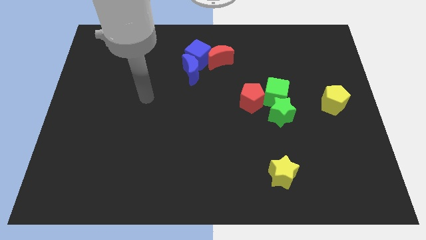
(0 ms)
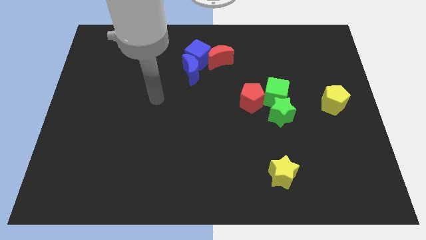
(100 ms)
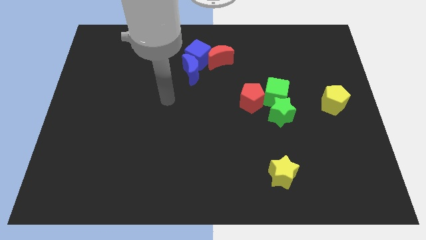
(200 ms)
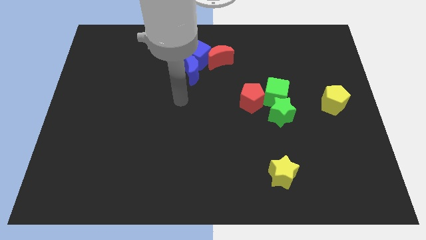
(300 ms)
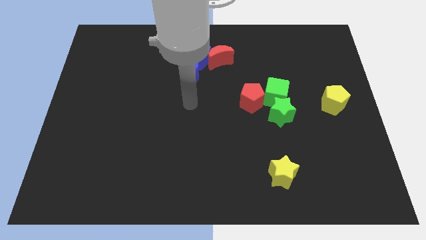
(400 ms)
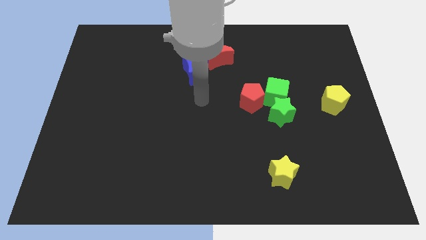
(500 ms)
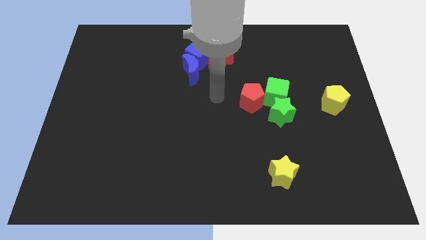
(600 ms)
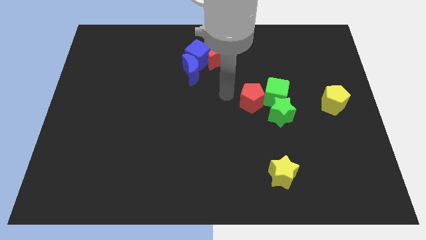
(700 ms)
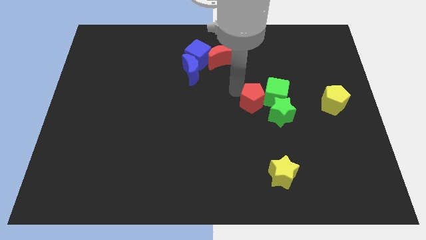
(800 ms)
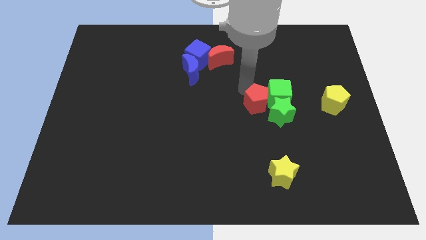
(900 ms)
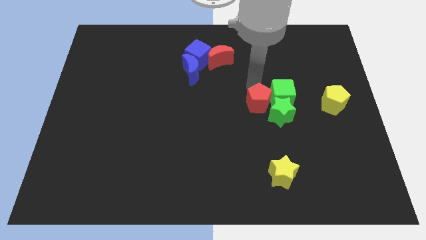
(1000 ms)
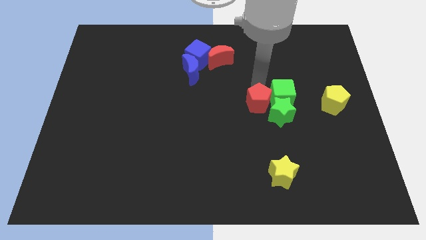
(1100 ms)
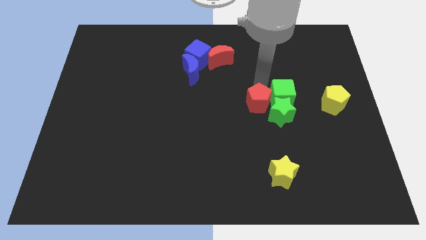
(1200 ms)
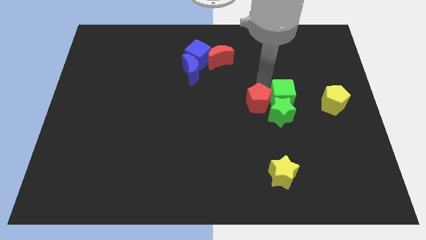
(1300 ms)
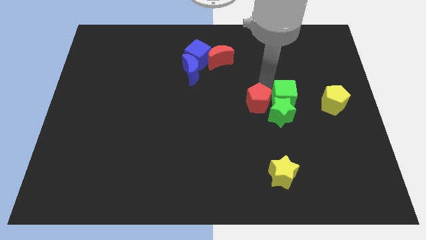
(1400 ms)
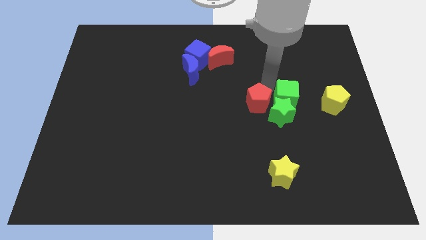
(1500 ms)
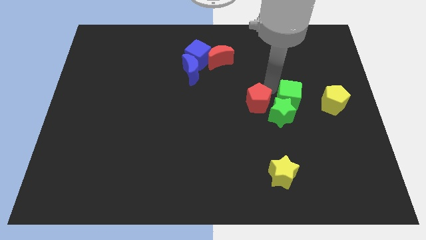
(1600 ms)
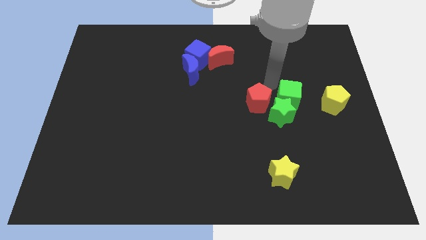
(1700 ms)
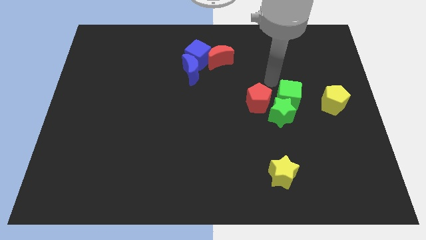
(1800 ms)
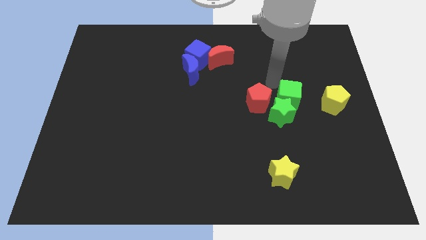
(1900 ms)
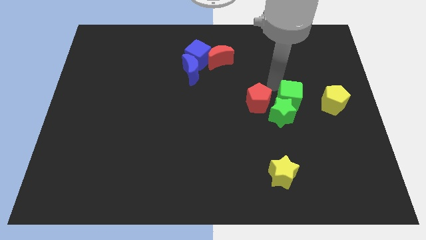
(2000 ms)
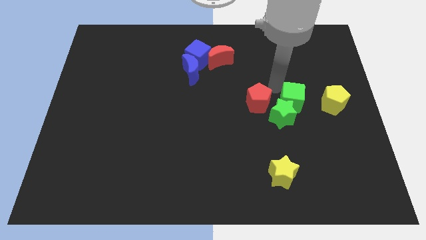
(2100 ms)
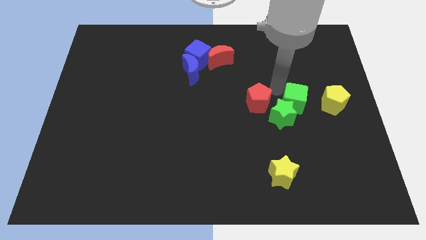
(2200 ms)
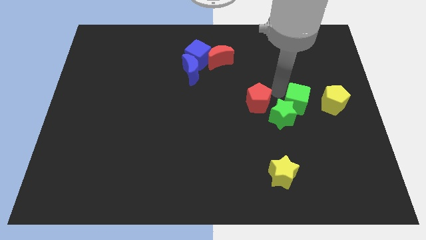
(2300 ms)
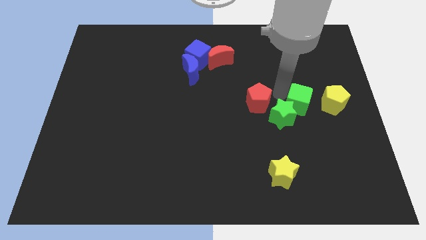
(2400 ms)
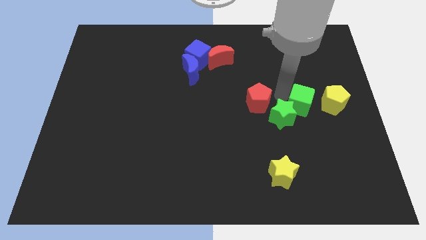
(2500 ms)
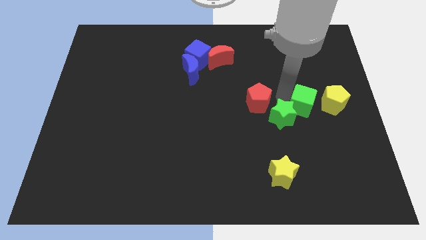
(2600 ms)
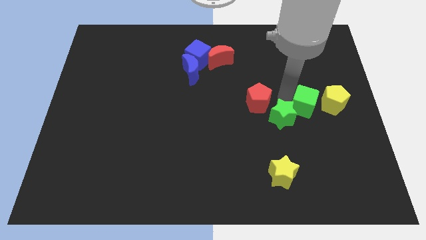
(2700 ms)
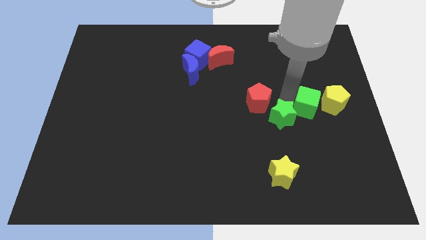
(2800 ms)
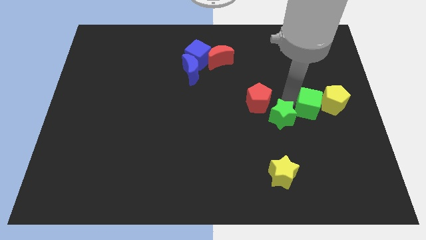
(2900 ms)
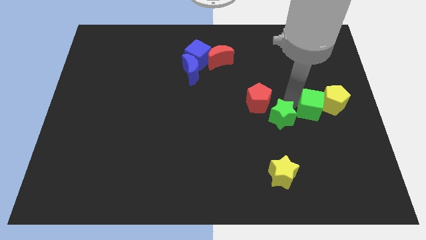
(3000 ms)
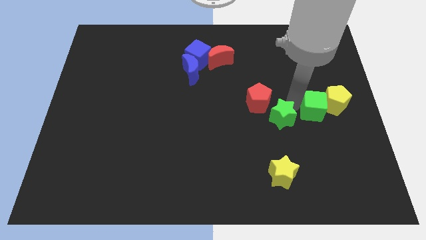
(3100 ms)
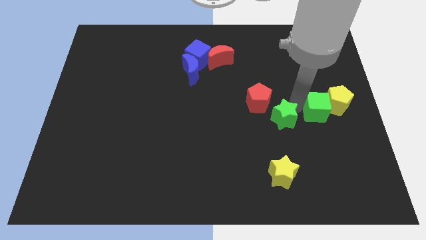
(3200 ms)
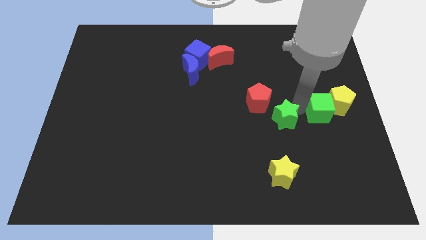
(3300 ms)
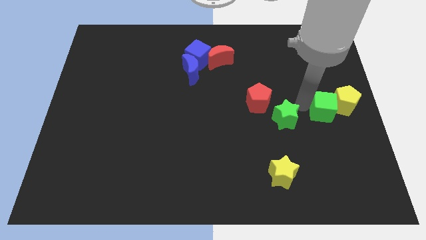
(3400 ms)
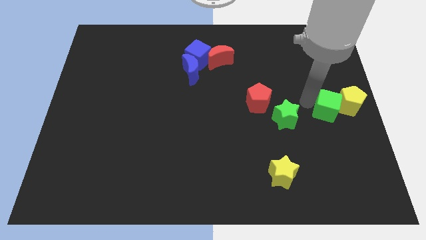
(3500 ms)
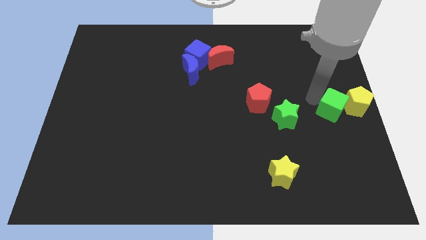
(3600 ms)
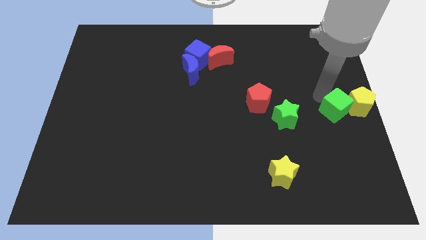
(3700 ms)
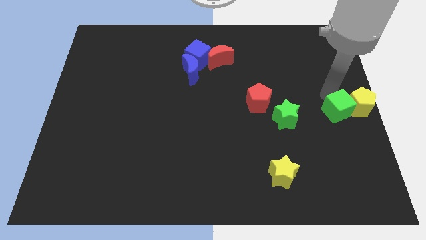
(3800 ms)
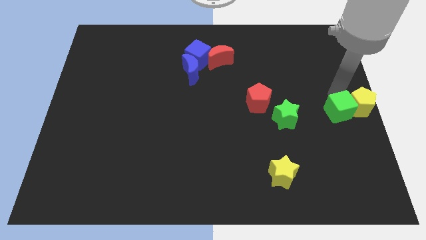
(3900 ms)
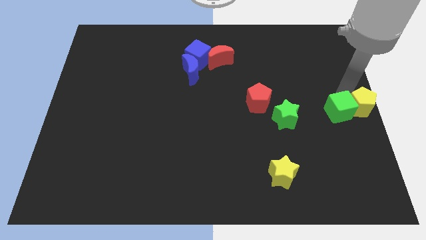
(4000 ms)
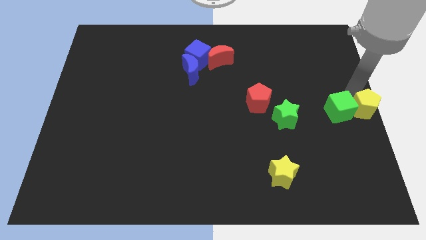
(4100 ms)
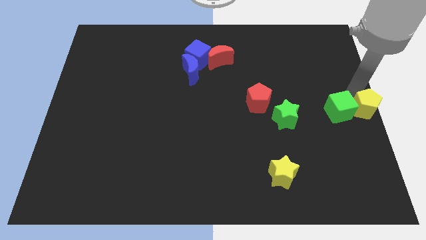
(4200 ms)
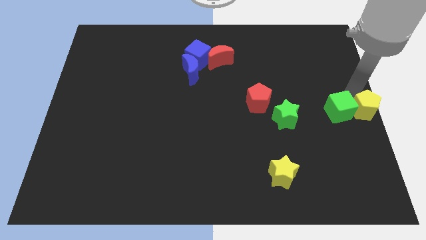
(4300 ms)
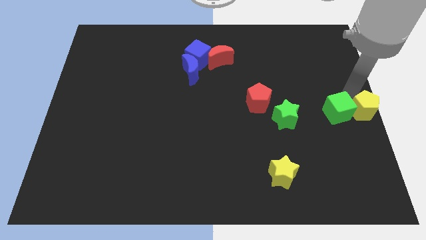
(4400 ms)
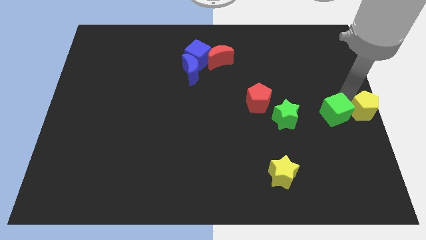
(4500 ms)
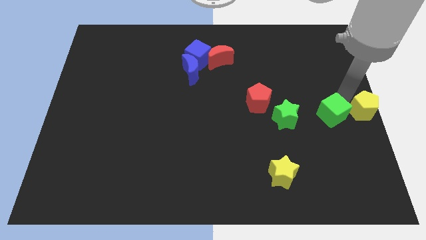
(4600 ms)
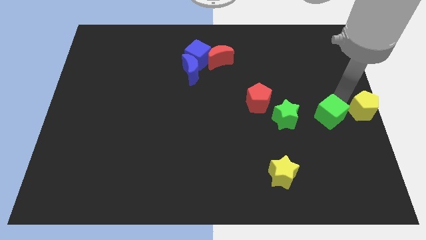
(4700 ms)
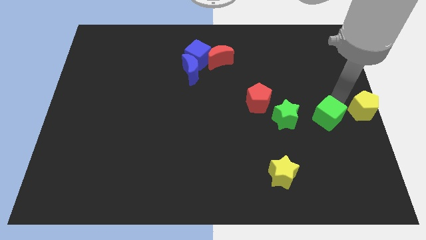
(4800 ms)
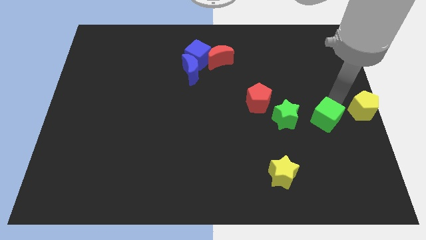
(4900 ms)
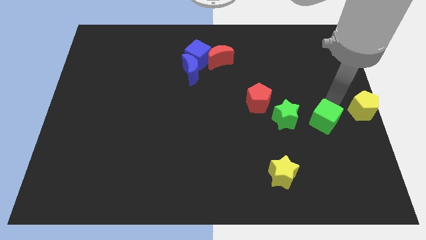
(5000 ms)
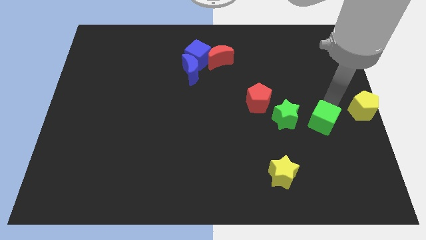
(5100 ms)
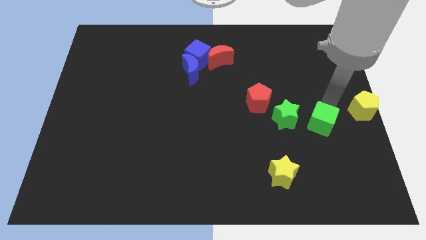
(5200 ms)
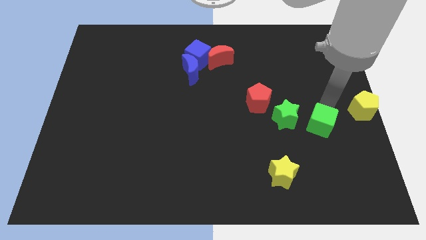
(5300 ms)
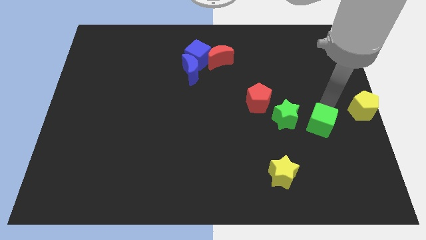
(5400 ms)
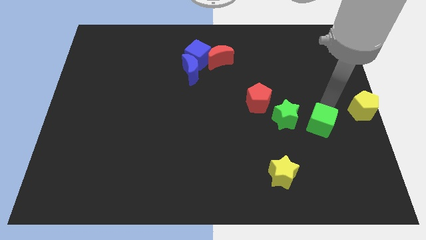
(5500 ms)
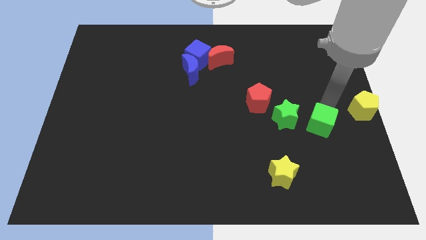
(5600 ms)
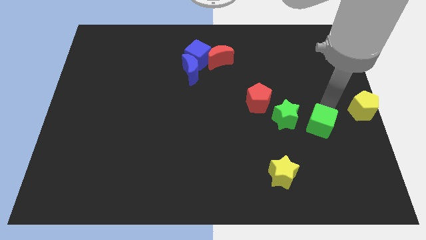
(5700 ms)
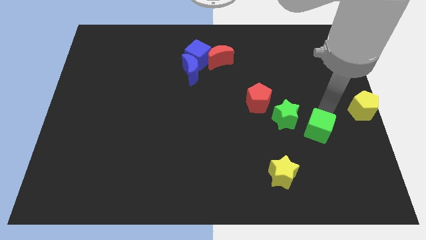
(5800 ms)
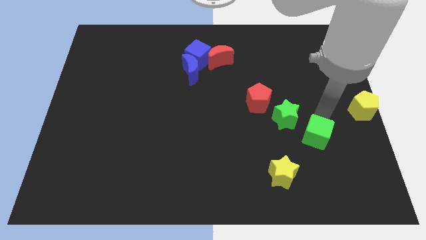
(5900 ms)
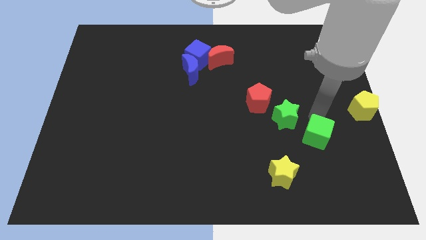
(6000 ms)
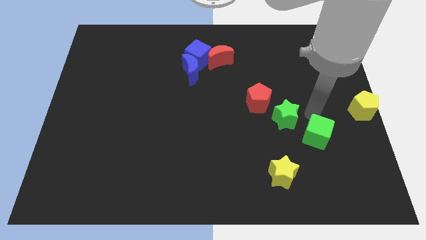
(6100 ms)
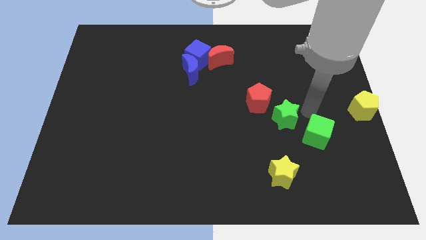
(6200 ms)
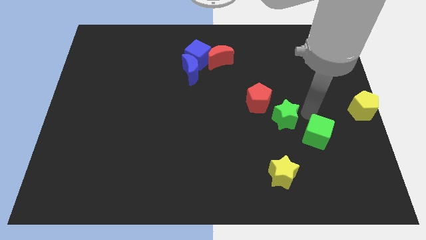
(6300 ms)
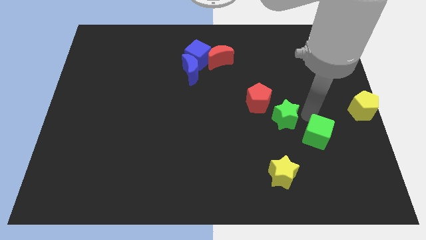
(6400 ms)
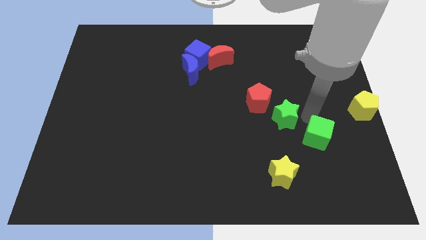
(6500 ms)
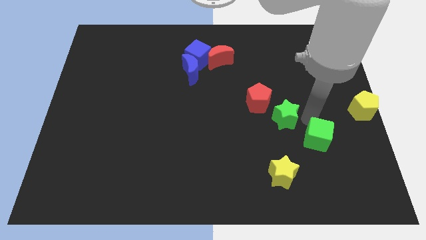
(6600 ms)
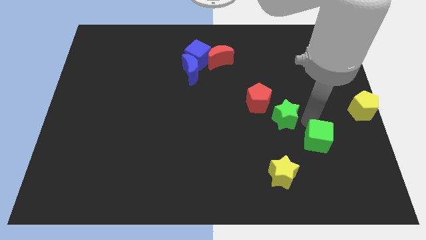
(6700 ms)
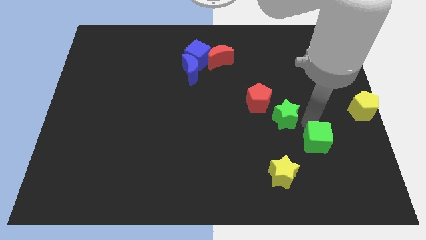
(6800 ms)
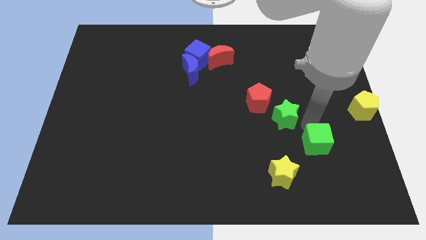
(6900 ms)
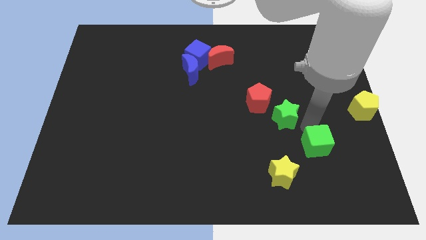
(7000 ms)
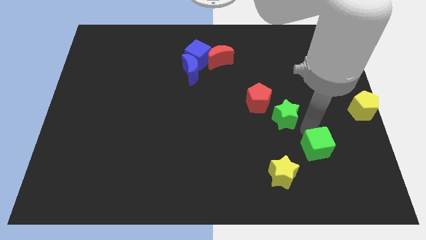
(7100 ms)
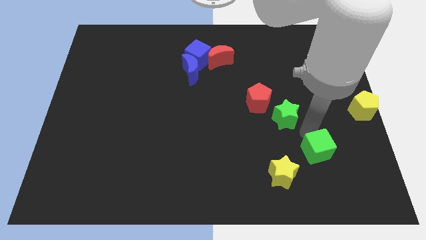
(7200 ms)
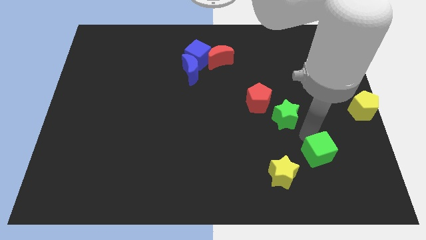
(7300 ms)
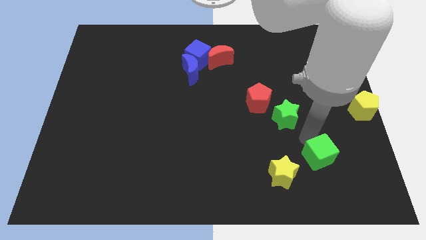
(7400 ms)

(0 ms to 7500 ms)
push the green cube right of the yellow star
